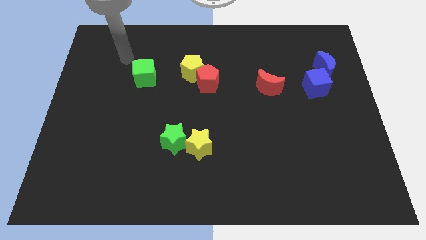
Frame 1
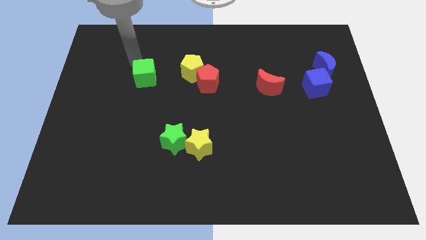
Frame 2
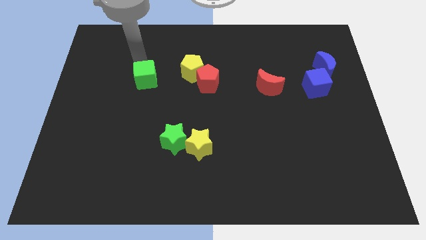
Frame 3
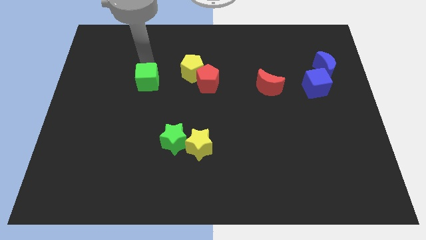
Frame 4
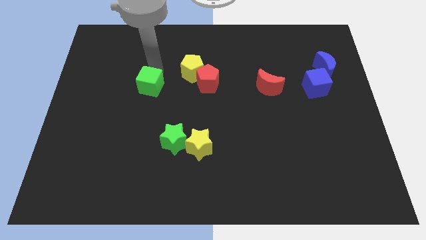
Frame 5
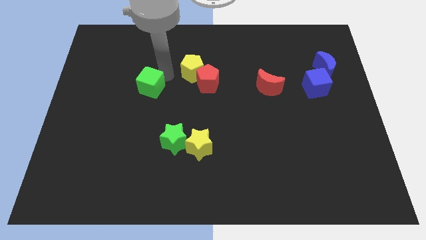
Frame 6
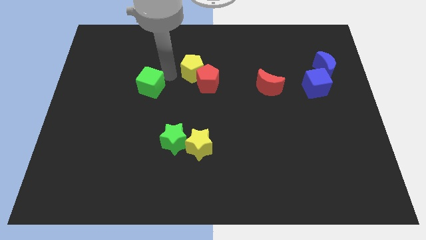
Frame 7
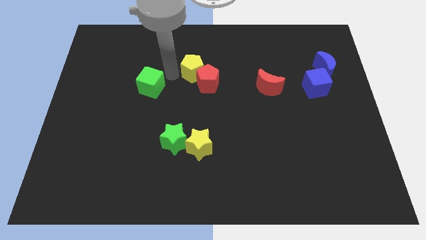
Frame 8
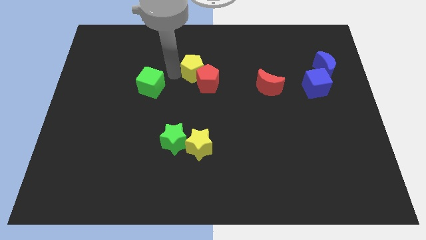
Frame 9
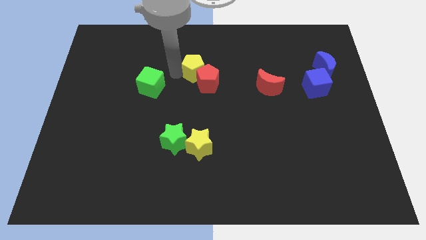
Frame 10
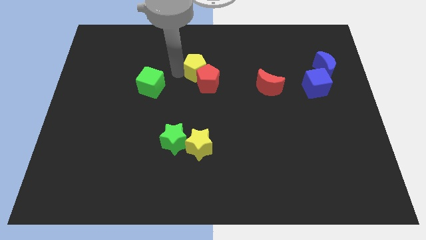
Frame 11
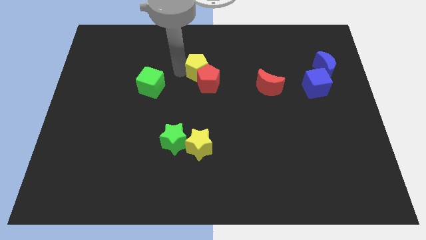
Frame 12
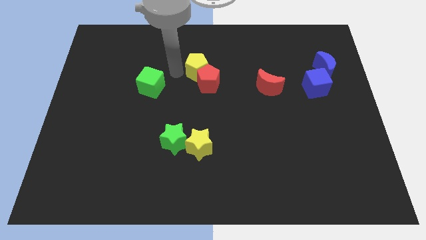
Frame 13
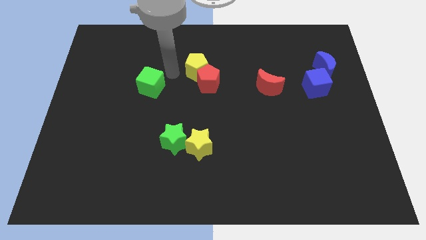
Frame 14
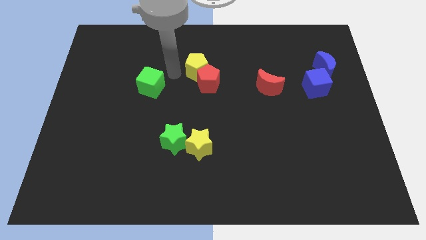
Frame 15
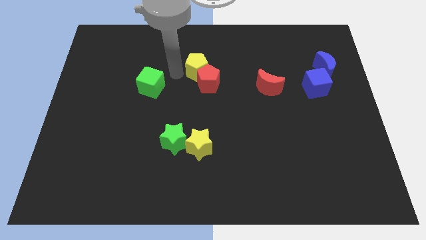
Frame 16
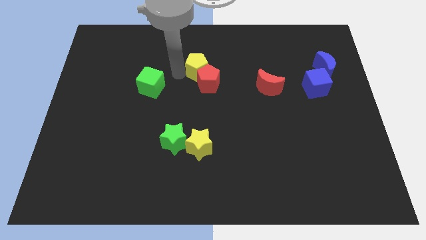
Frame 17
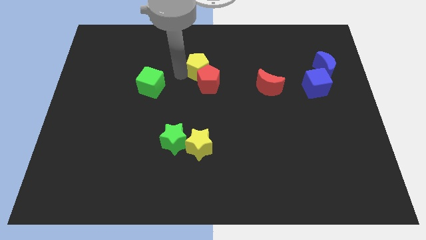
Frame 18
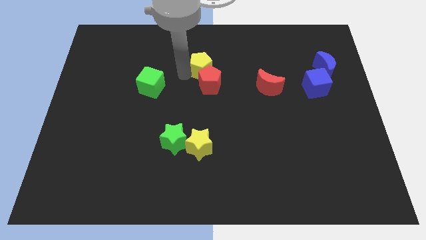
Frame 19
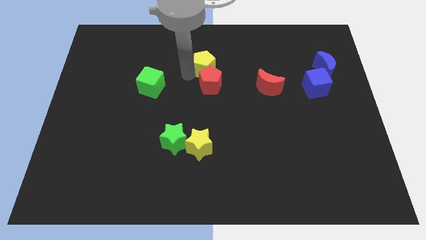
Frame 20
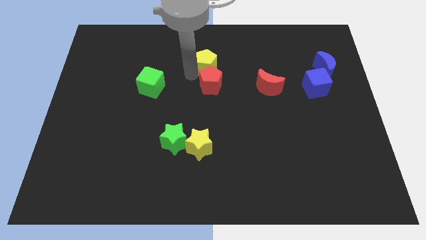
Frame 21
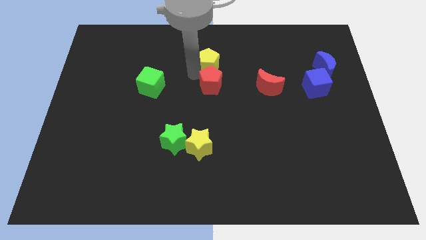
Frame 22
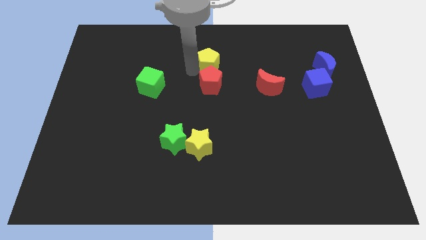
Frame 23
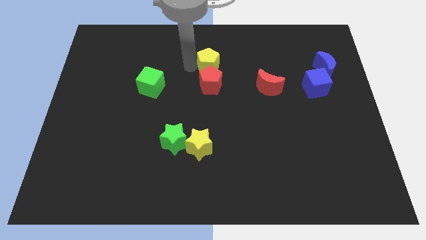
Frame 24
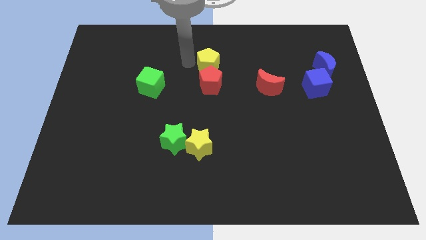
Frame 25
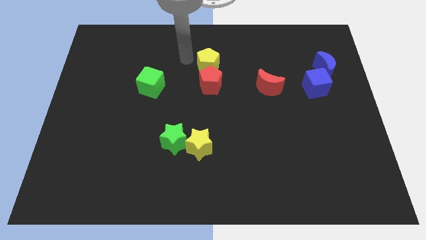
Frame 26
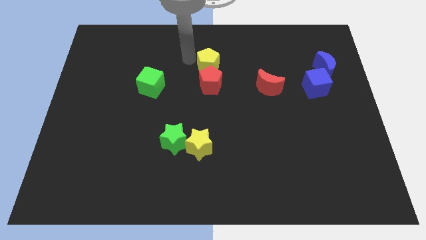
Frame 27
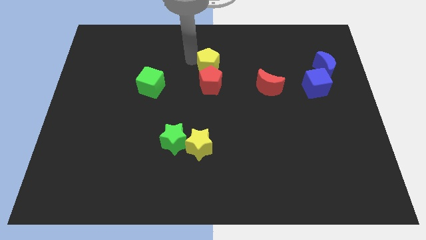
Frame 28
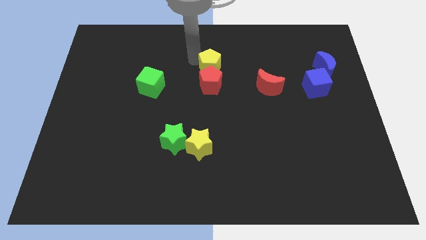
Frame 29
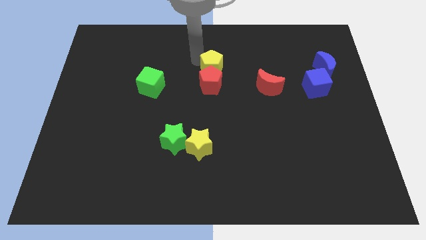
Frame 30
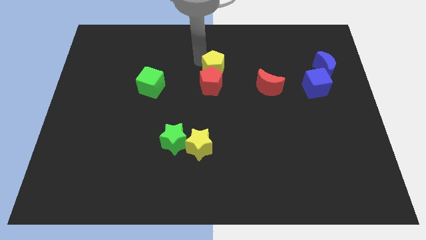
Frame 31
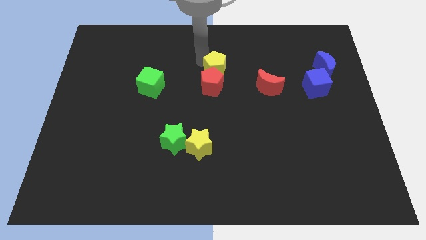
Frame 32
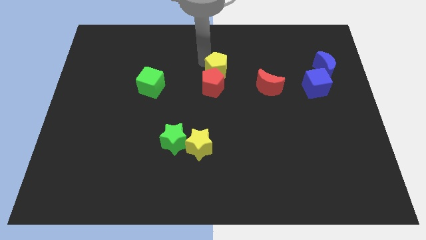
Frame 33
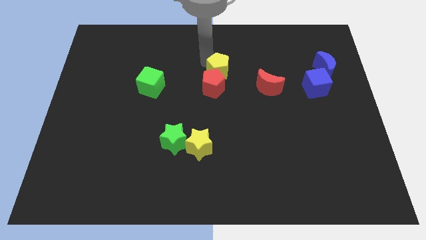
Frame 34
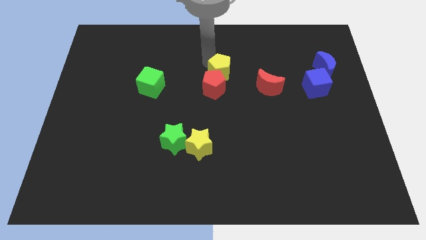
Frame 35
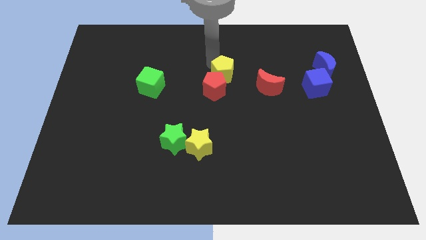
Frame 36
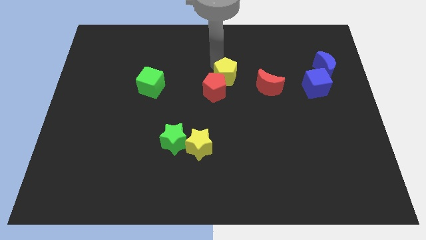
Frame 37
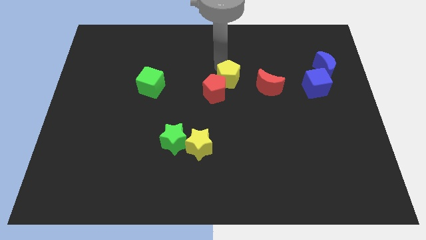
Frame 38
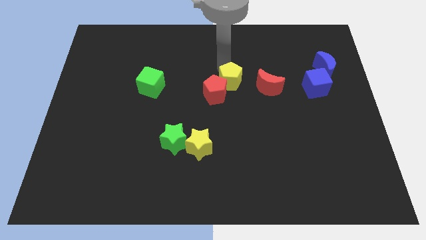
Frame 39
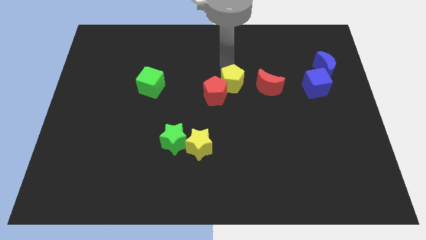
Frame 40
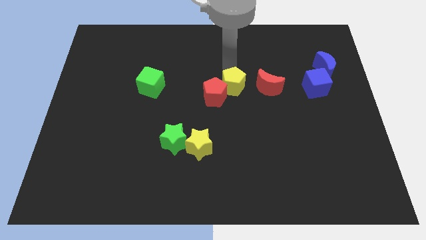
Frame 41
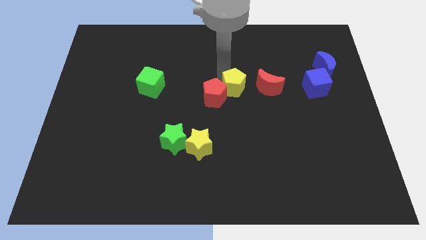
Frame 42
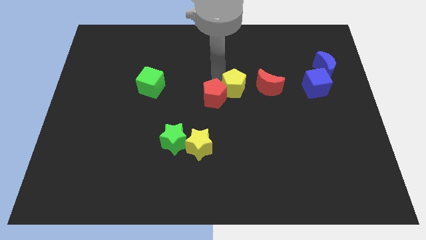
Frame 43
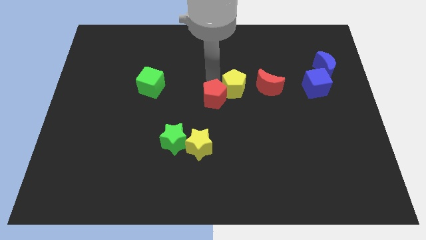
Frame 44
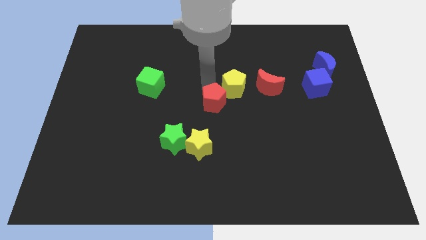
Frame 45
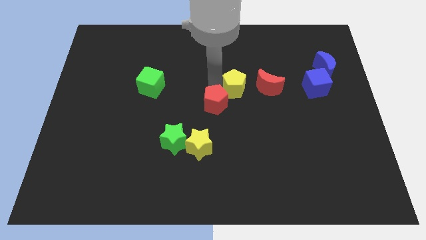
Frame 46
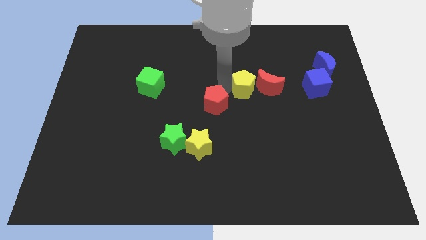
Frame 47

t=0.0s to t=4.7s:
slide the yellow pentagon close to the red moon

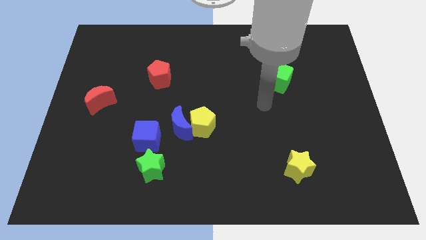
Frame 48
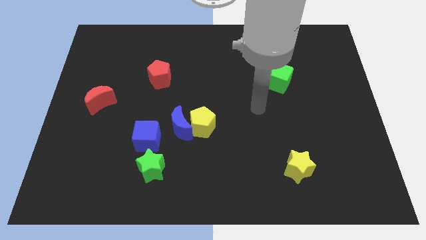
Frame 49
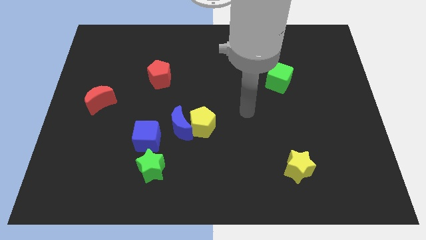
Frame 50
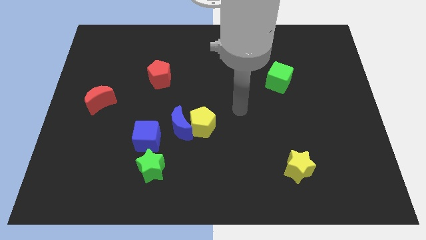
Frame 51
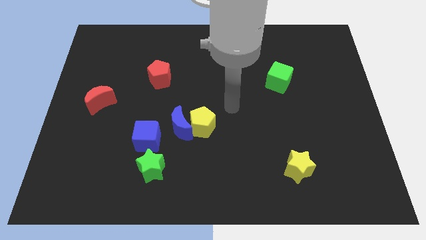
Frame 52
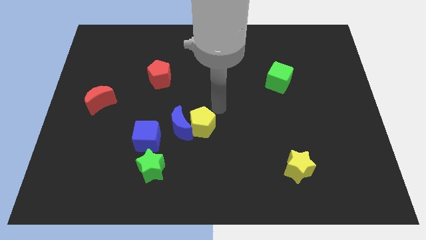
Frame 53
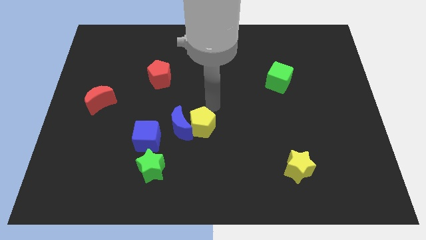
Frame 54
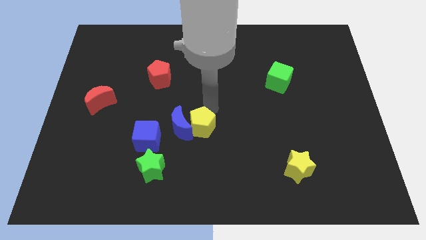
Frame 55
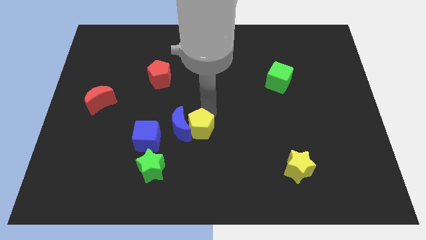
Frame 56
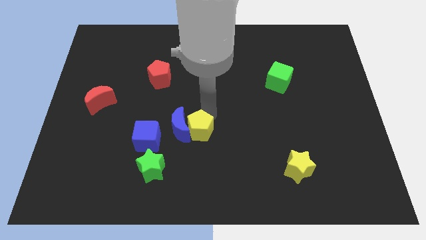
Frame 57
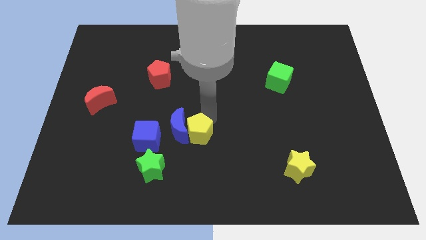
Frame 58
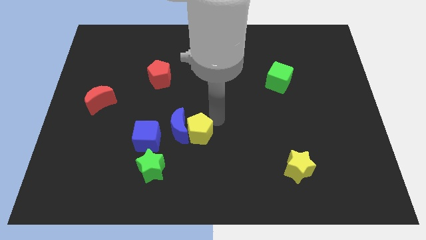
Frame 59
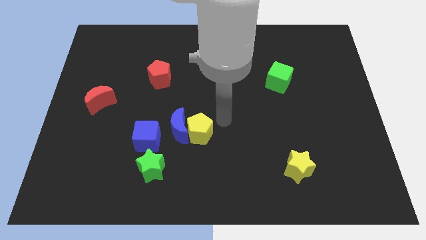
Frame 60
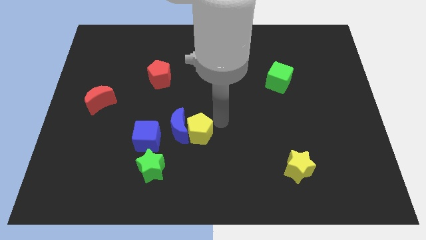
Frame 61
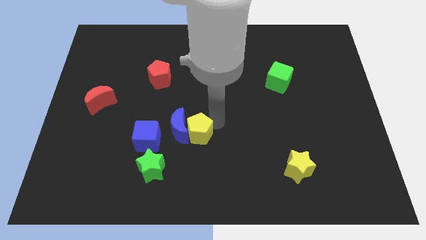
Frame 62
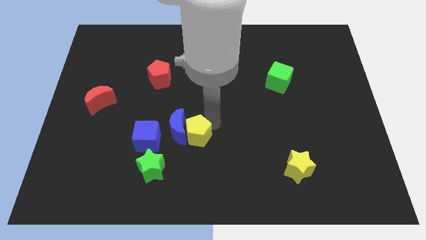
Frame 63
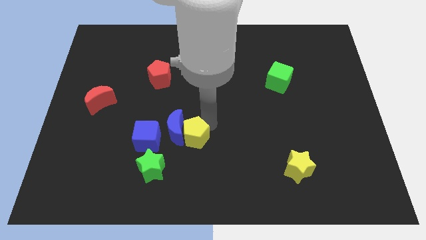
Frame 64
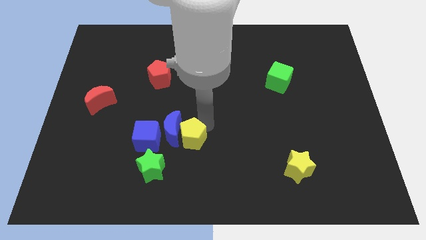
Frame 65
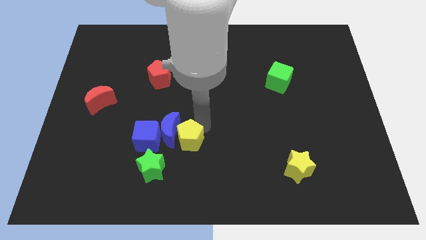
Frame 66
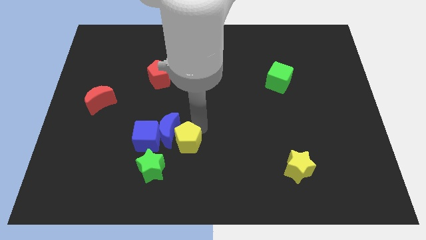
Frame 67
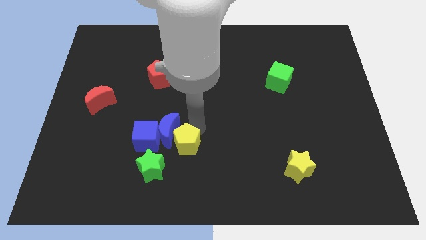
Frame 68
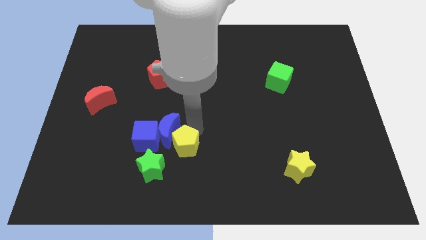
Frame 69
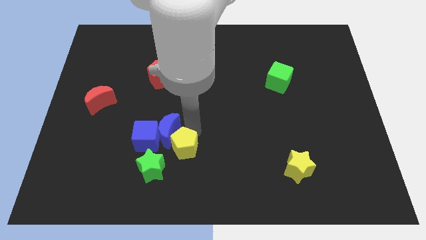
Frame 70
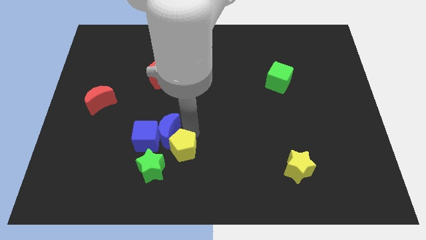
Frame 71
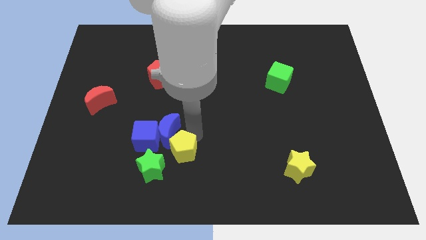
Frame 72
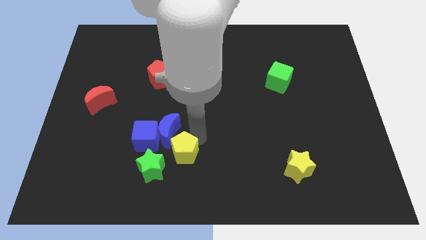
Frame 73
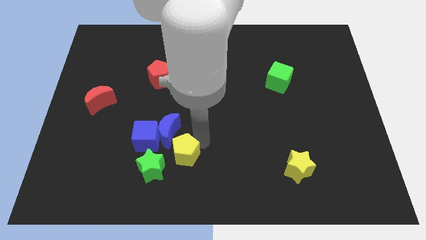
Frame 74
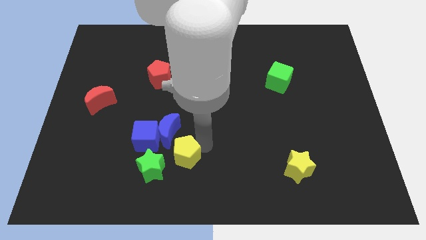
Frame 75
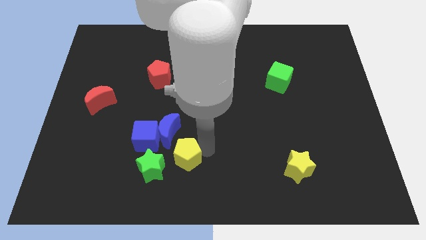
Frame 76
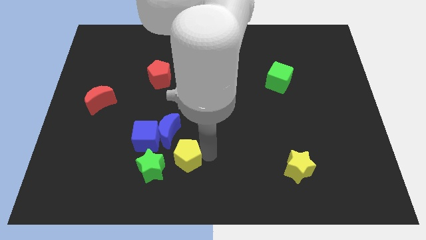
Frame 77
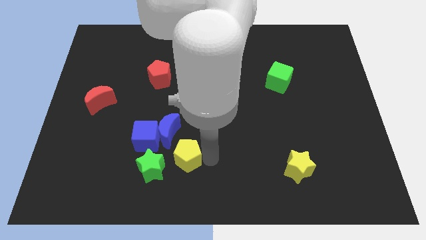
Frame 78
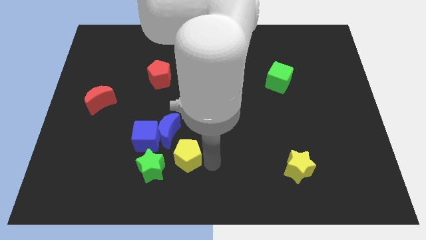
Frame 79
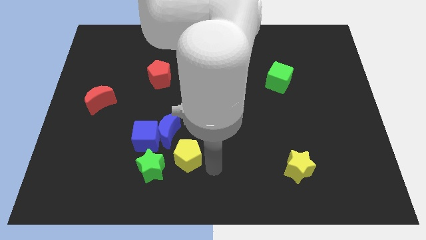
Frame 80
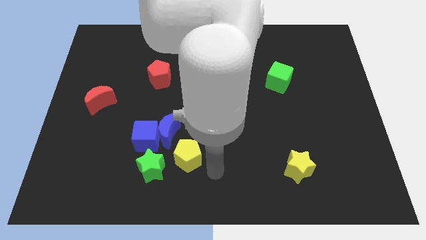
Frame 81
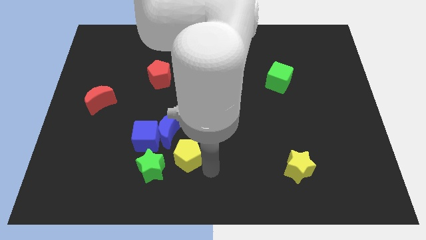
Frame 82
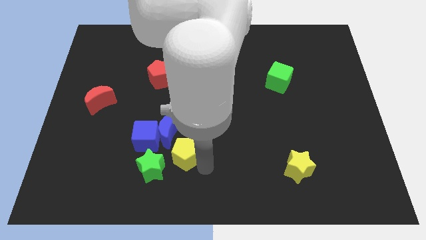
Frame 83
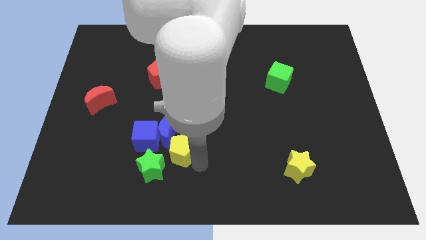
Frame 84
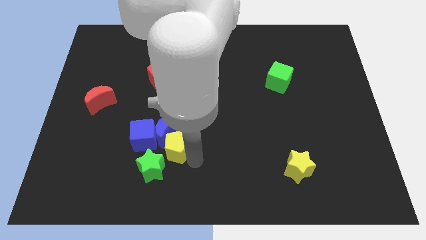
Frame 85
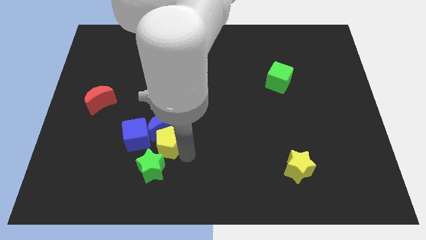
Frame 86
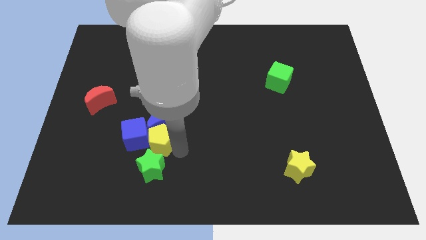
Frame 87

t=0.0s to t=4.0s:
put the yellow pentagon to the blue cube
